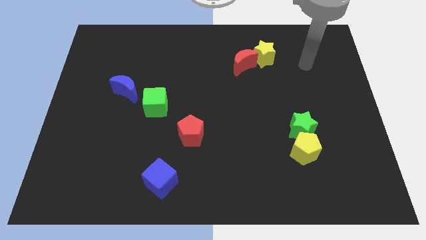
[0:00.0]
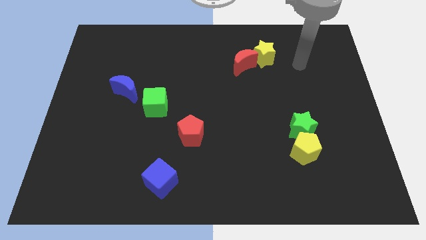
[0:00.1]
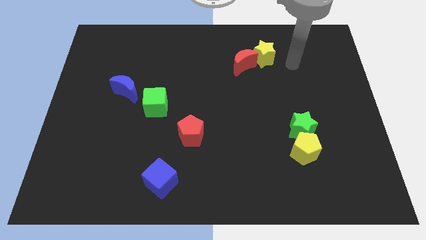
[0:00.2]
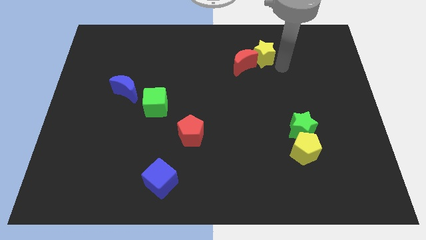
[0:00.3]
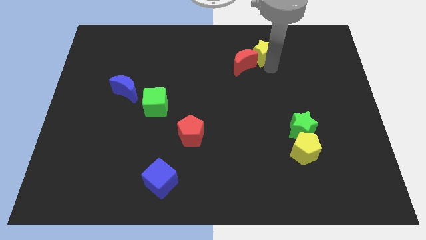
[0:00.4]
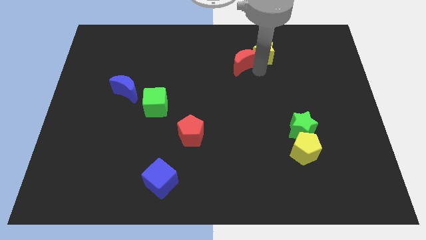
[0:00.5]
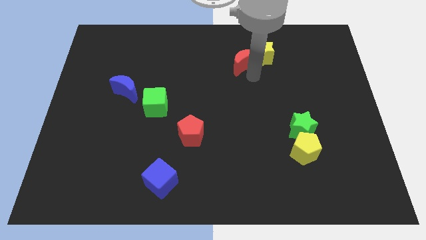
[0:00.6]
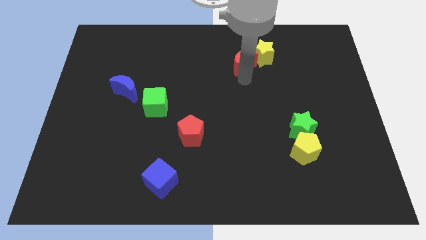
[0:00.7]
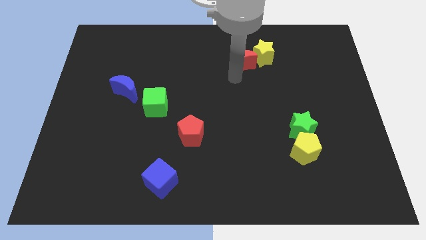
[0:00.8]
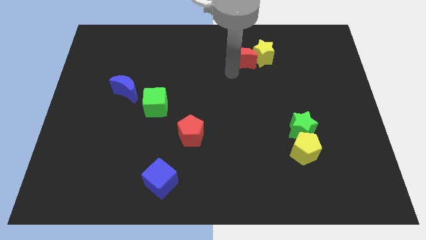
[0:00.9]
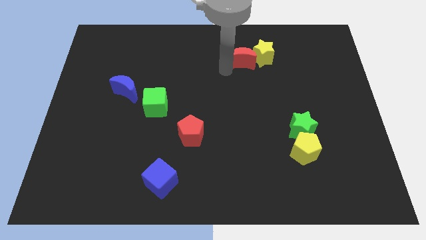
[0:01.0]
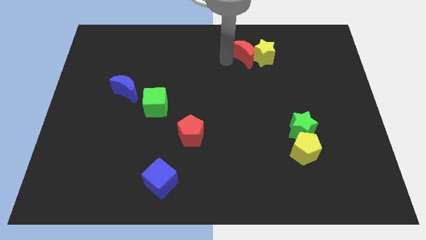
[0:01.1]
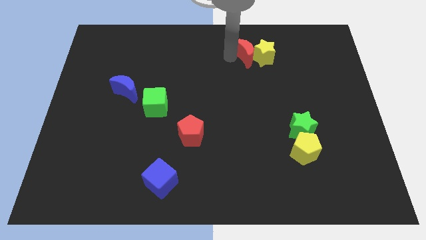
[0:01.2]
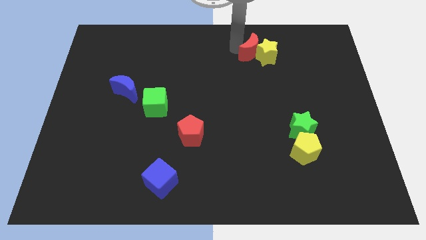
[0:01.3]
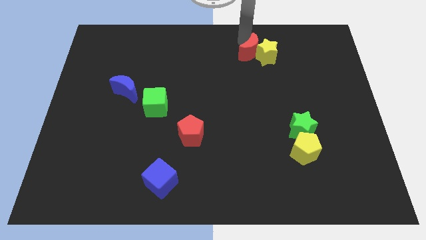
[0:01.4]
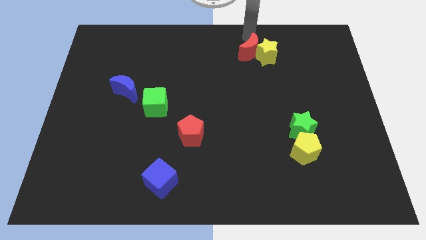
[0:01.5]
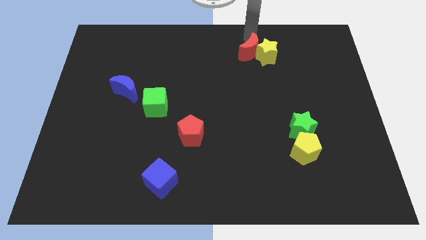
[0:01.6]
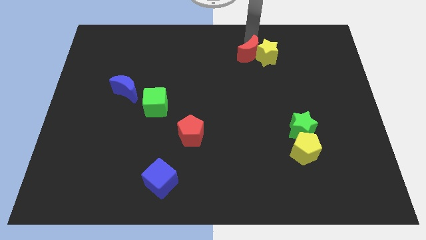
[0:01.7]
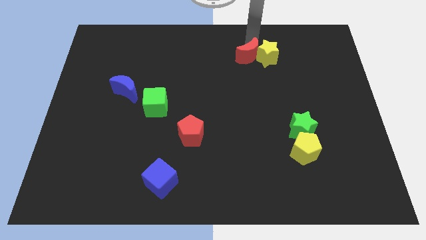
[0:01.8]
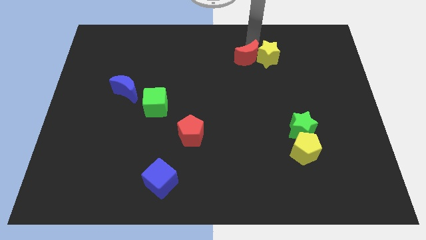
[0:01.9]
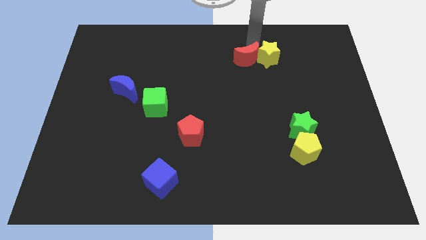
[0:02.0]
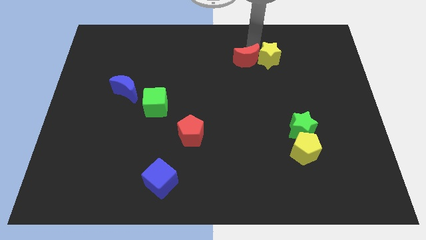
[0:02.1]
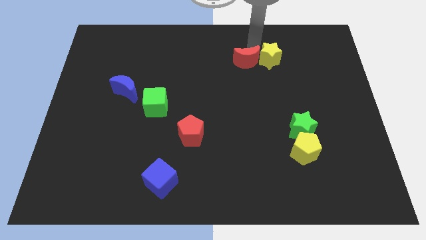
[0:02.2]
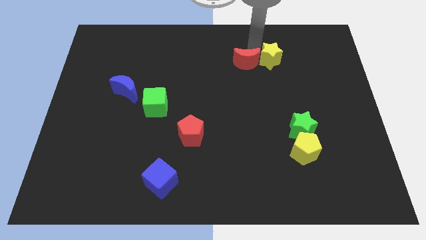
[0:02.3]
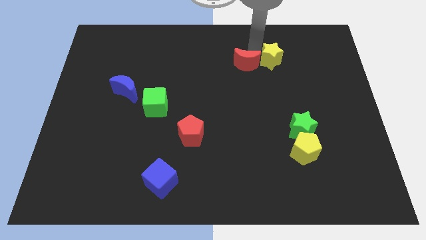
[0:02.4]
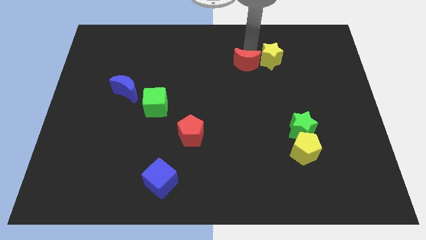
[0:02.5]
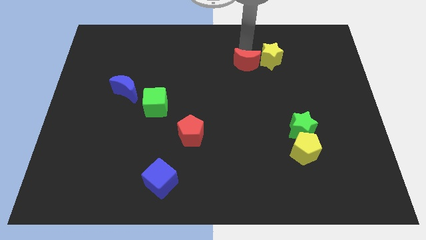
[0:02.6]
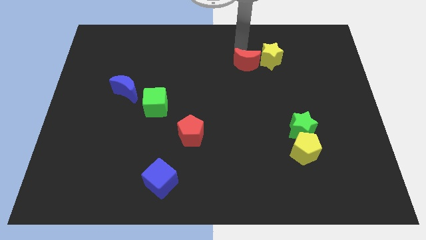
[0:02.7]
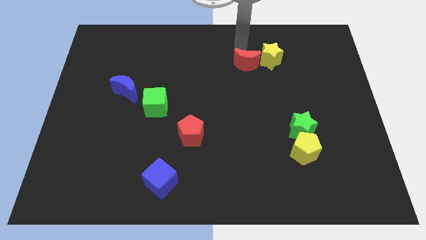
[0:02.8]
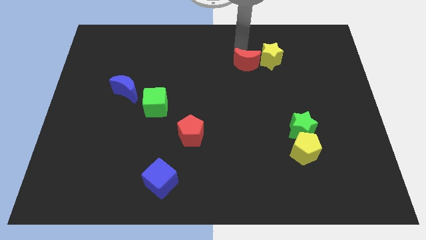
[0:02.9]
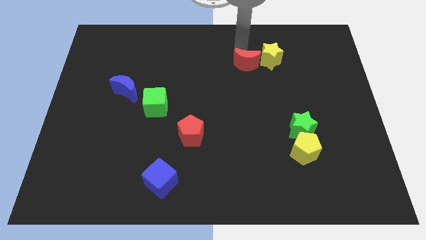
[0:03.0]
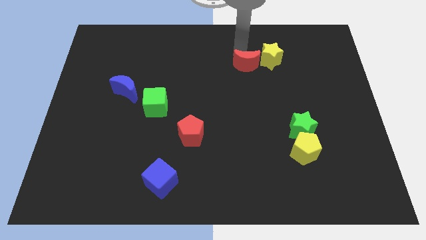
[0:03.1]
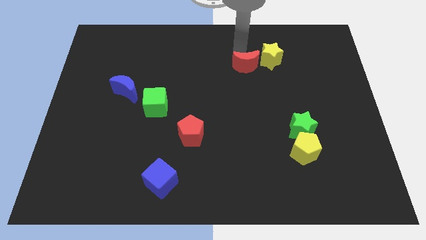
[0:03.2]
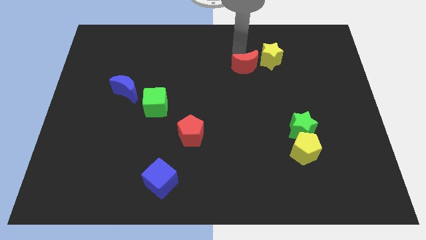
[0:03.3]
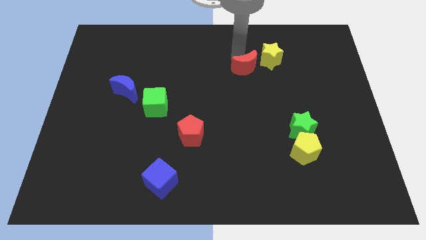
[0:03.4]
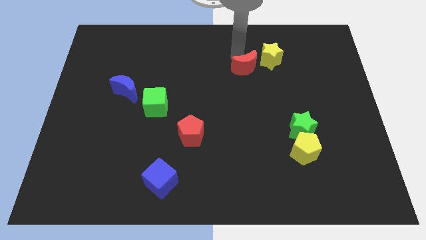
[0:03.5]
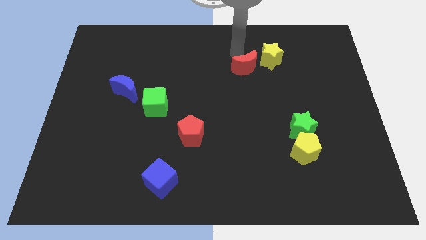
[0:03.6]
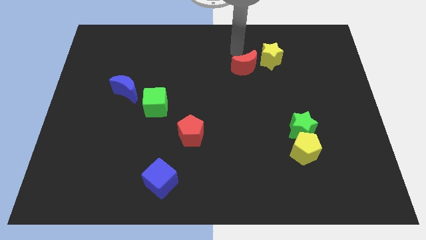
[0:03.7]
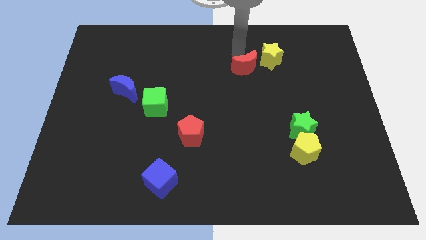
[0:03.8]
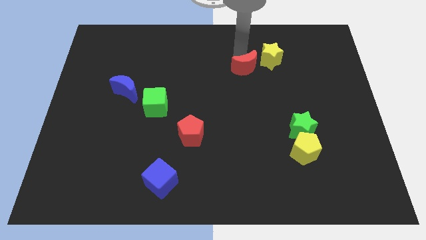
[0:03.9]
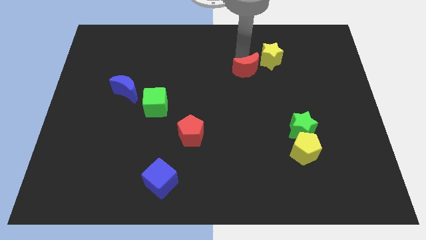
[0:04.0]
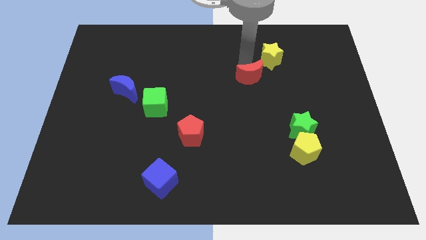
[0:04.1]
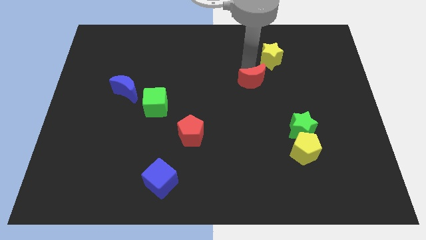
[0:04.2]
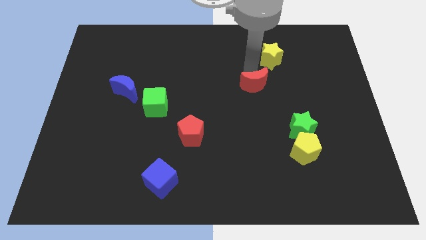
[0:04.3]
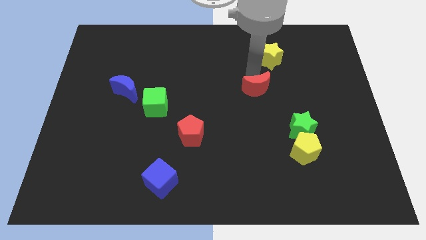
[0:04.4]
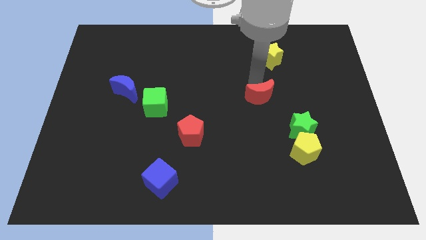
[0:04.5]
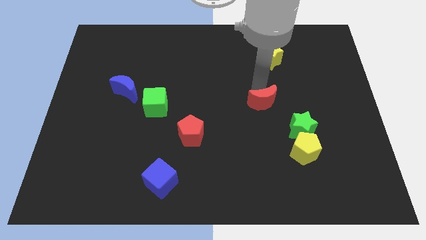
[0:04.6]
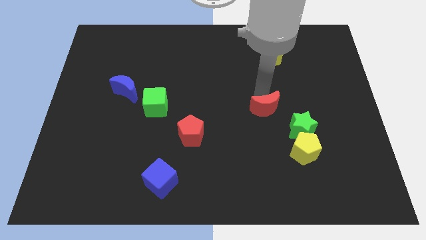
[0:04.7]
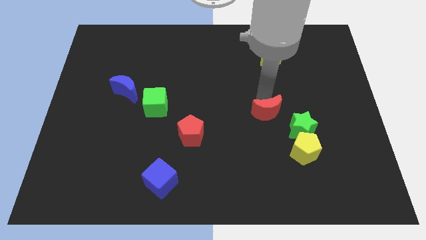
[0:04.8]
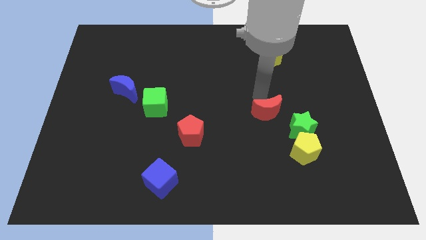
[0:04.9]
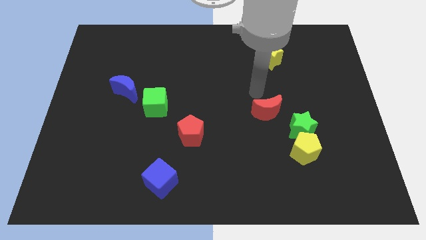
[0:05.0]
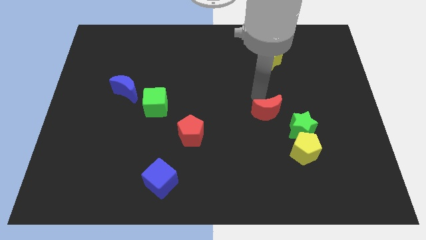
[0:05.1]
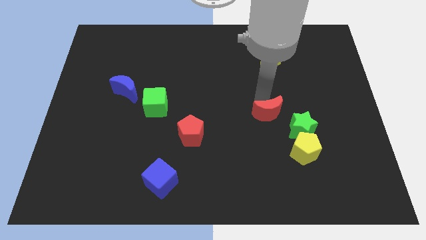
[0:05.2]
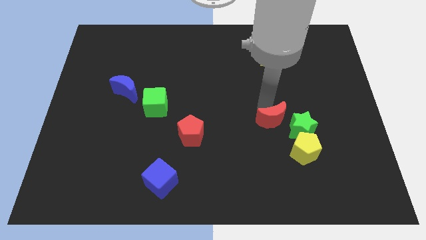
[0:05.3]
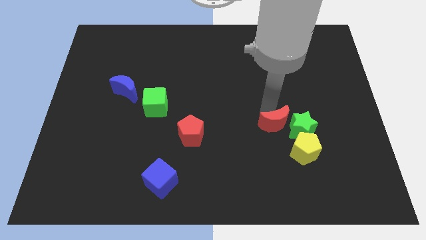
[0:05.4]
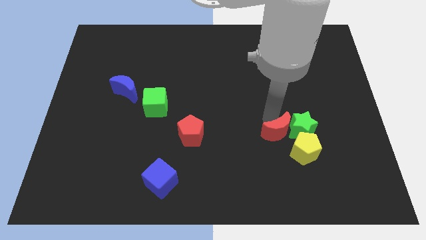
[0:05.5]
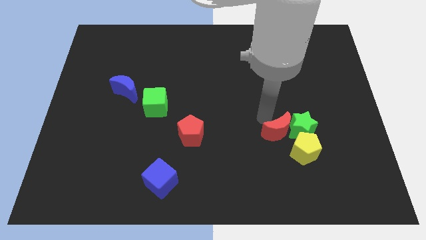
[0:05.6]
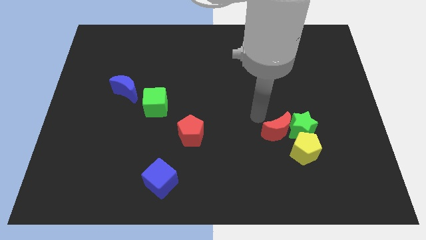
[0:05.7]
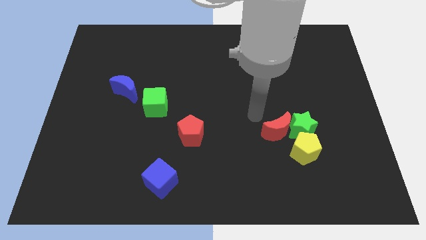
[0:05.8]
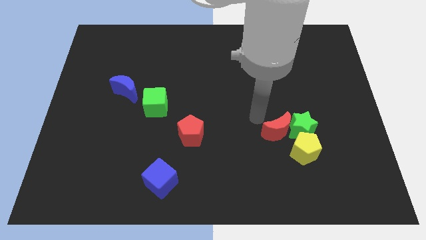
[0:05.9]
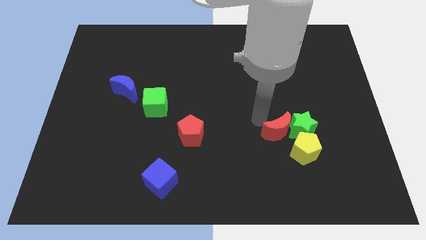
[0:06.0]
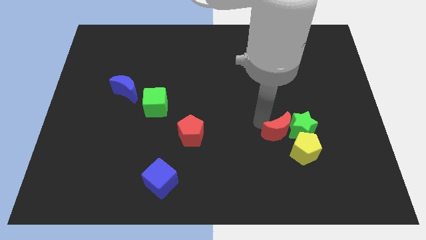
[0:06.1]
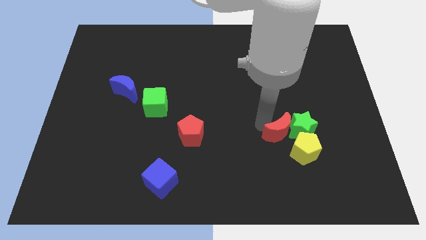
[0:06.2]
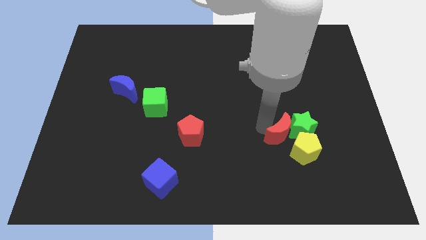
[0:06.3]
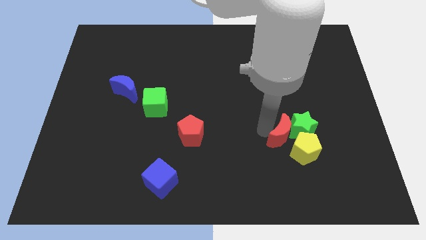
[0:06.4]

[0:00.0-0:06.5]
put the red moon to the yellow pentagon

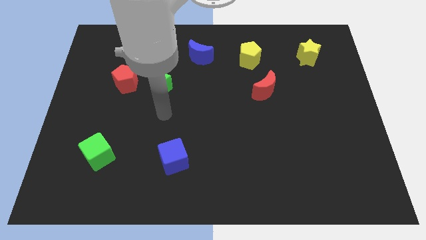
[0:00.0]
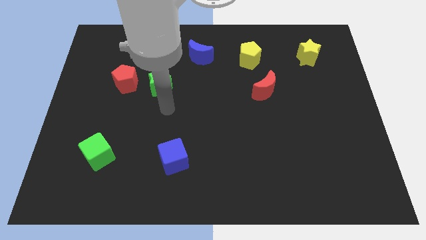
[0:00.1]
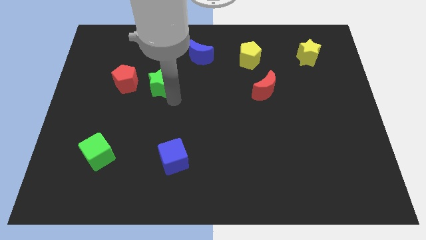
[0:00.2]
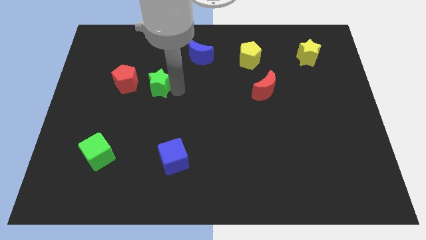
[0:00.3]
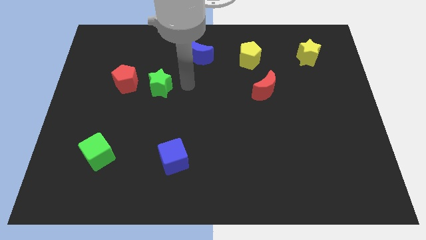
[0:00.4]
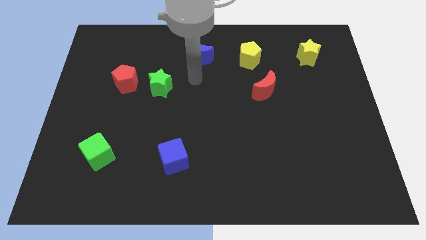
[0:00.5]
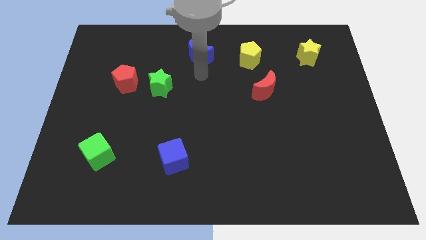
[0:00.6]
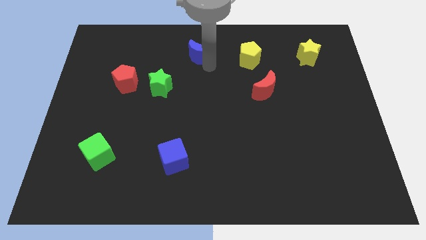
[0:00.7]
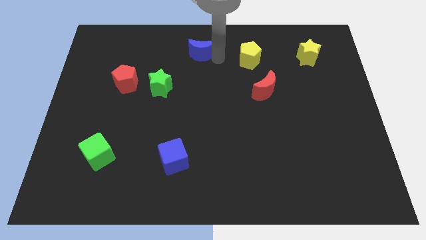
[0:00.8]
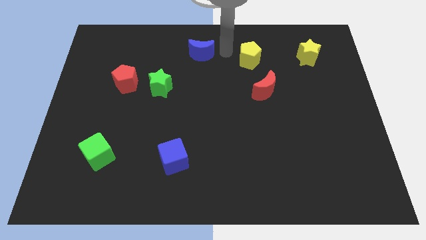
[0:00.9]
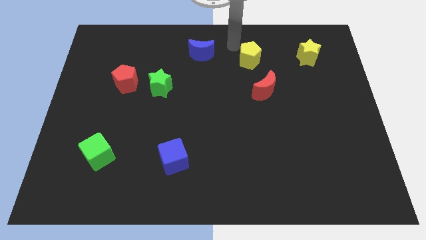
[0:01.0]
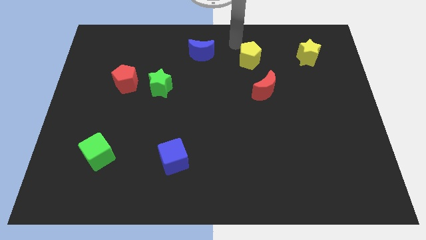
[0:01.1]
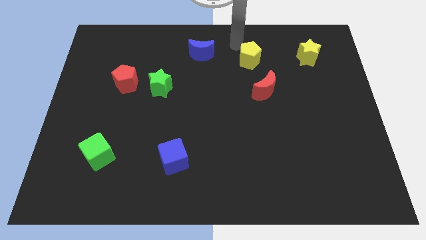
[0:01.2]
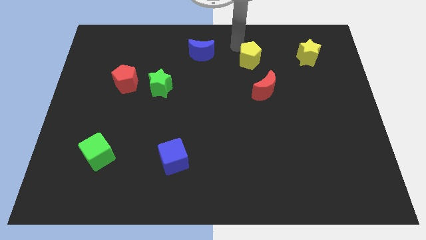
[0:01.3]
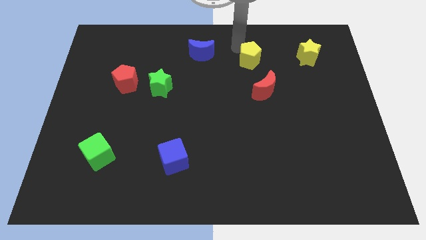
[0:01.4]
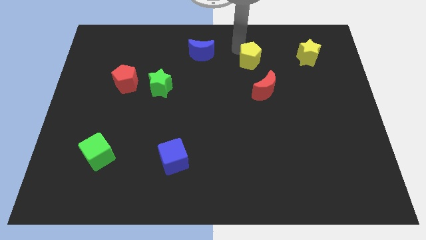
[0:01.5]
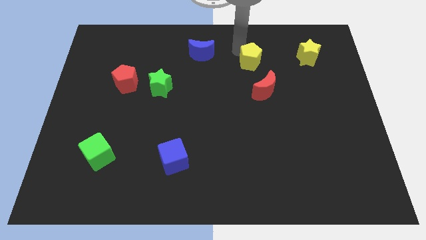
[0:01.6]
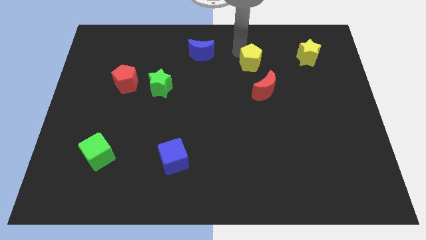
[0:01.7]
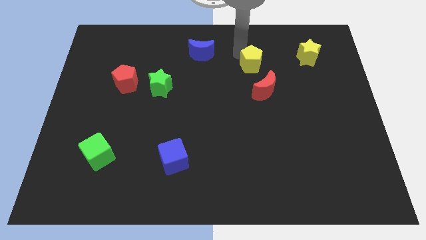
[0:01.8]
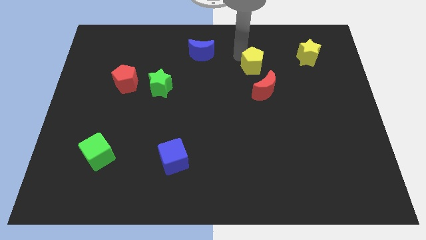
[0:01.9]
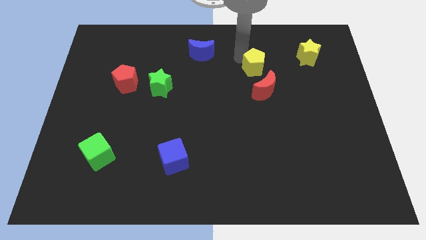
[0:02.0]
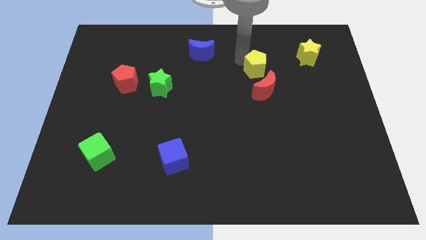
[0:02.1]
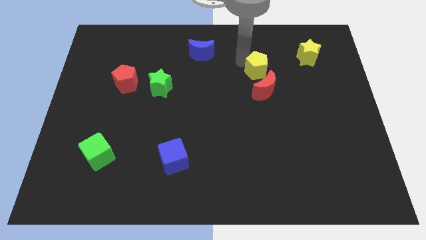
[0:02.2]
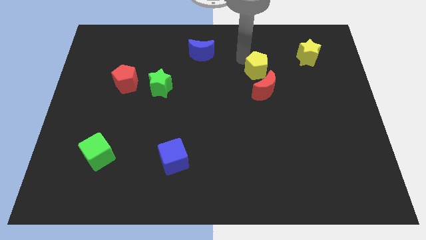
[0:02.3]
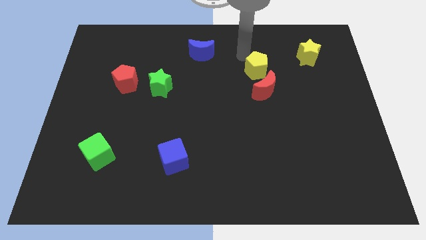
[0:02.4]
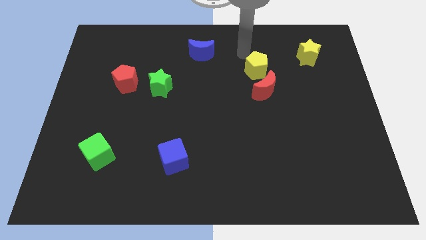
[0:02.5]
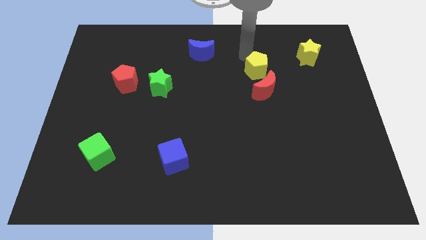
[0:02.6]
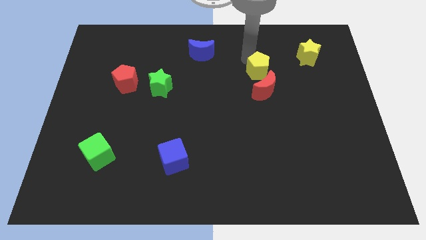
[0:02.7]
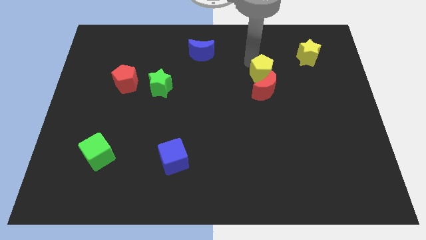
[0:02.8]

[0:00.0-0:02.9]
slide the yellow pentagon close to the red moon
